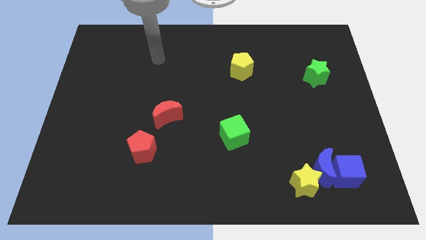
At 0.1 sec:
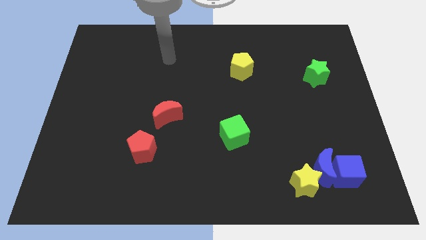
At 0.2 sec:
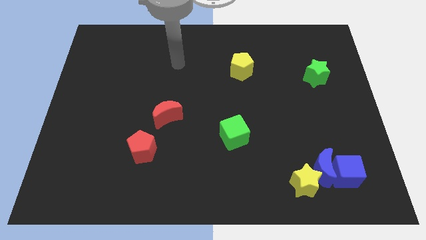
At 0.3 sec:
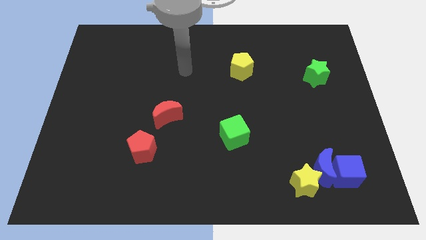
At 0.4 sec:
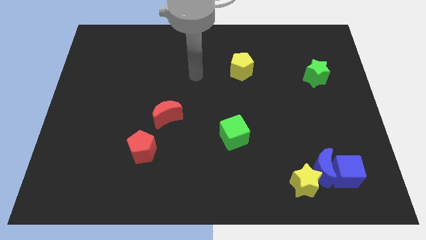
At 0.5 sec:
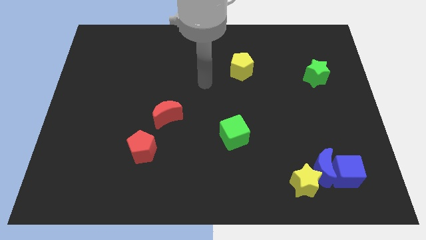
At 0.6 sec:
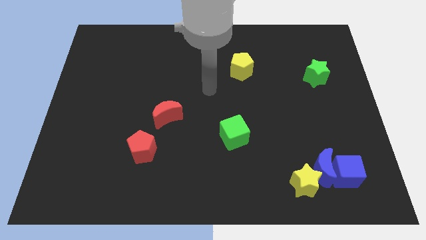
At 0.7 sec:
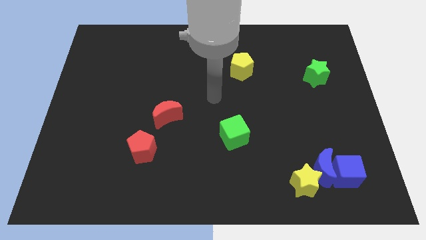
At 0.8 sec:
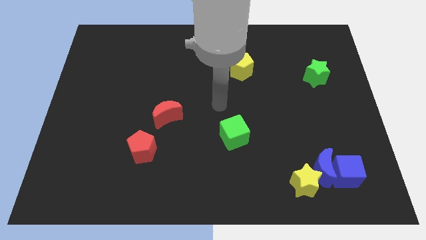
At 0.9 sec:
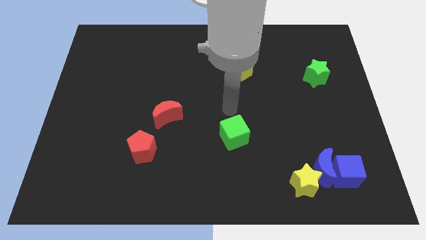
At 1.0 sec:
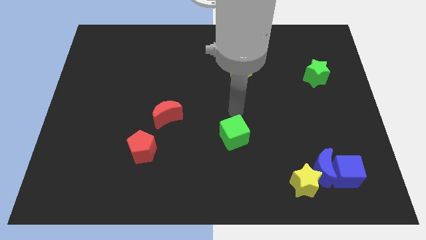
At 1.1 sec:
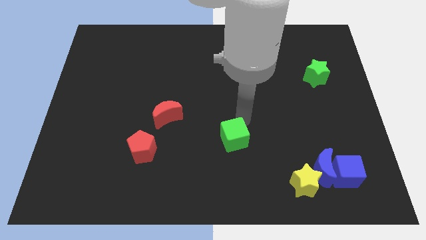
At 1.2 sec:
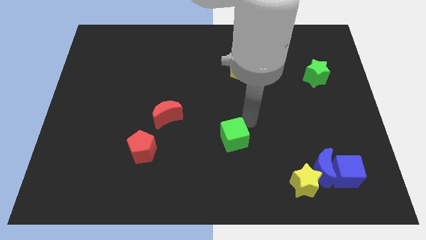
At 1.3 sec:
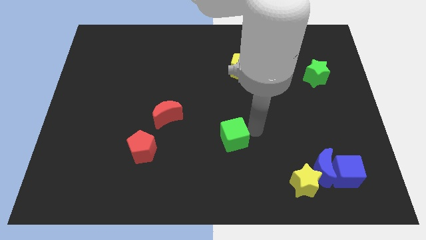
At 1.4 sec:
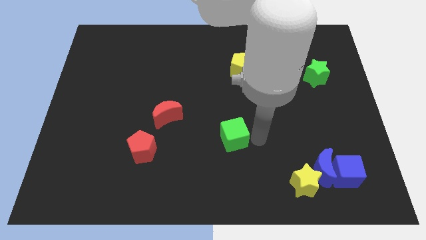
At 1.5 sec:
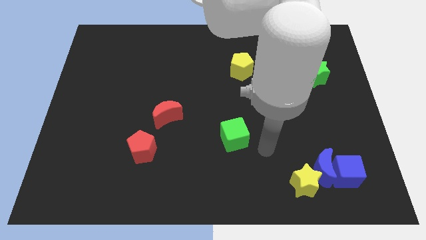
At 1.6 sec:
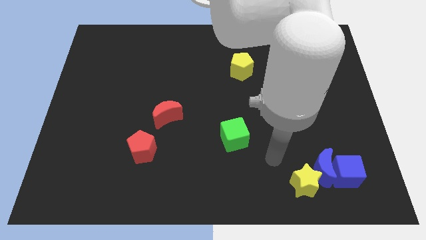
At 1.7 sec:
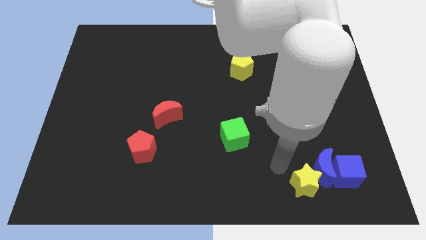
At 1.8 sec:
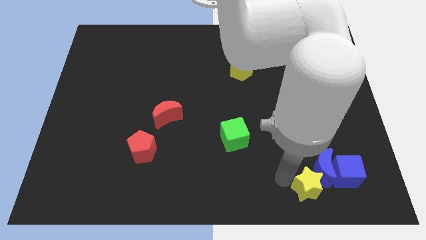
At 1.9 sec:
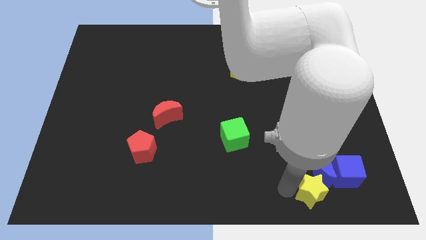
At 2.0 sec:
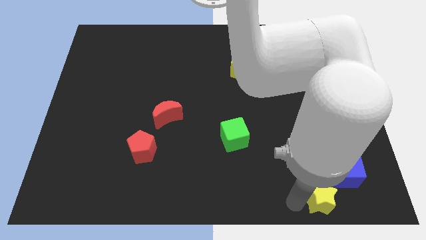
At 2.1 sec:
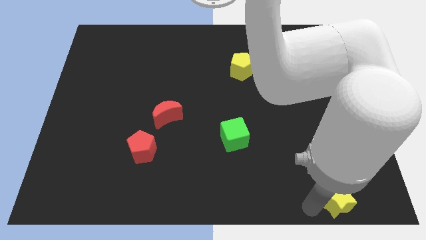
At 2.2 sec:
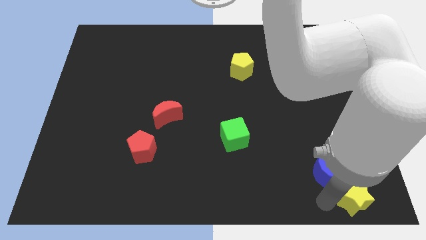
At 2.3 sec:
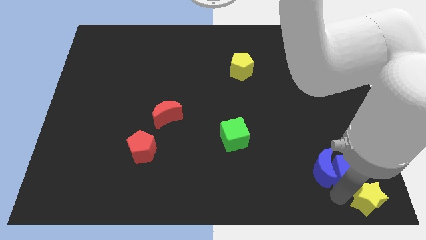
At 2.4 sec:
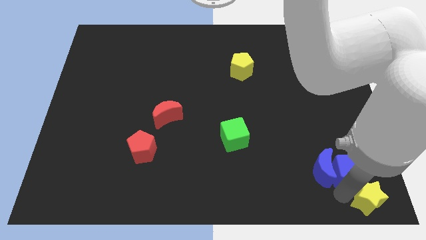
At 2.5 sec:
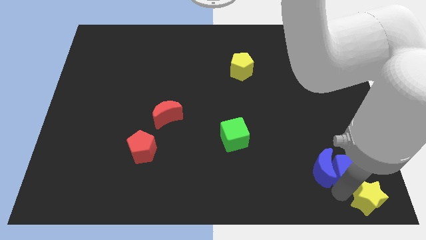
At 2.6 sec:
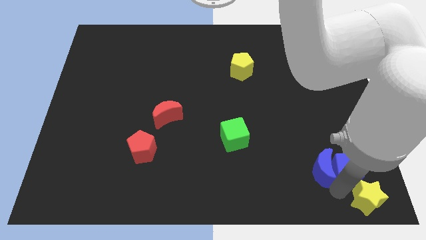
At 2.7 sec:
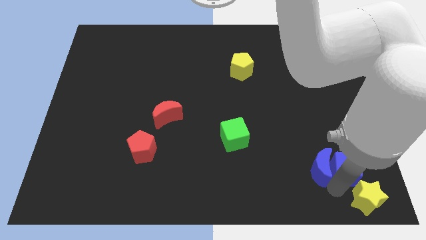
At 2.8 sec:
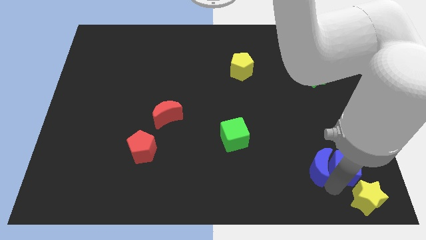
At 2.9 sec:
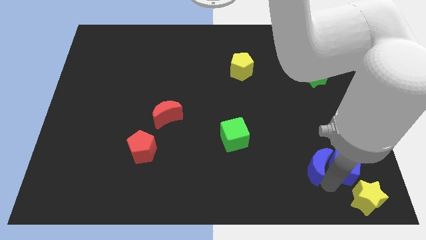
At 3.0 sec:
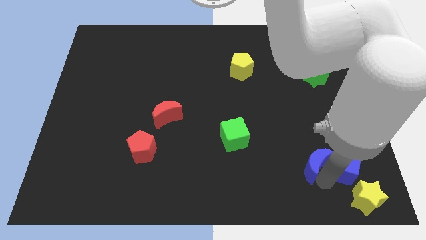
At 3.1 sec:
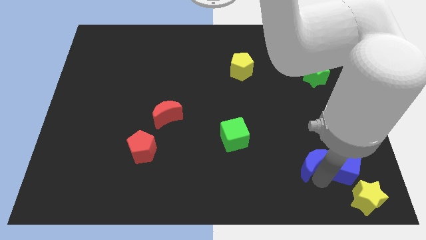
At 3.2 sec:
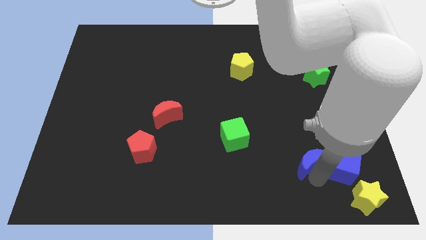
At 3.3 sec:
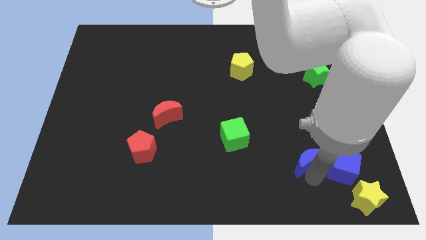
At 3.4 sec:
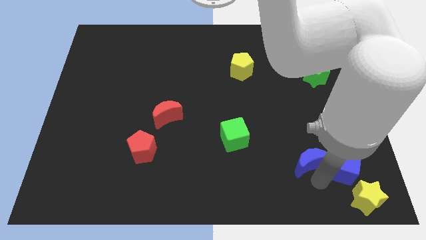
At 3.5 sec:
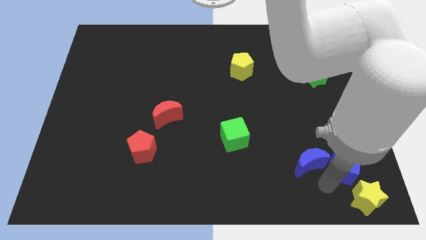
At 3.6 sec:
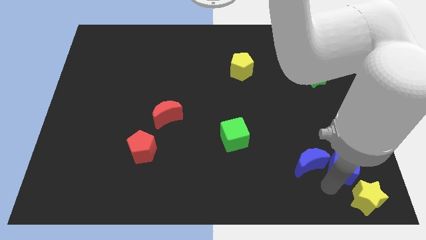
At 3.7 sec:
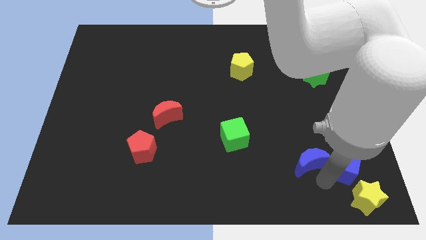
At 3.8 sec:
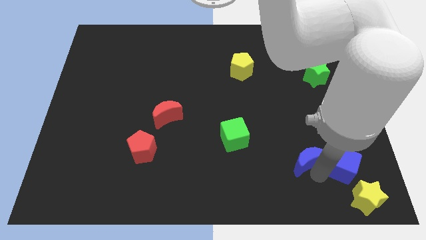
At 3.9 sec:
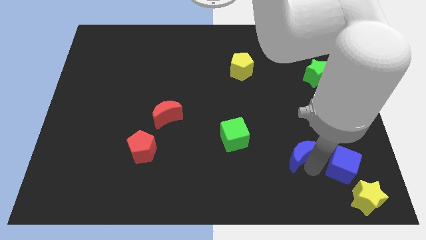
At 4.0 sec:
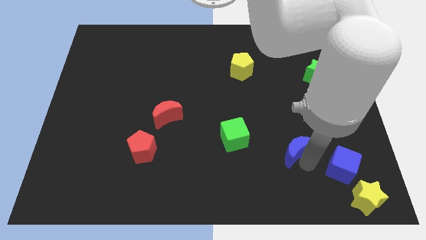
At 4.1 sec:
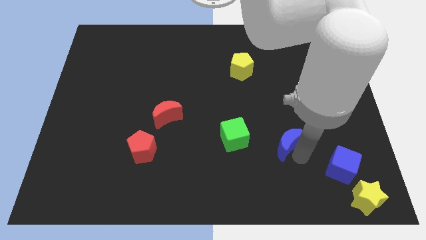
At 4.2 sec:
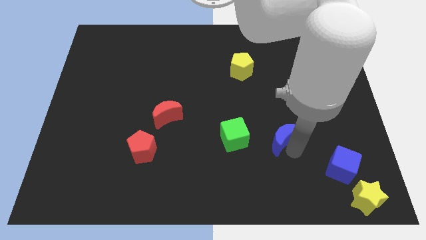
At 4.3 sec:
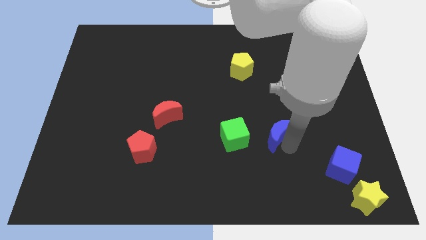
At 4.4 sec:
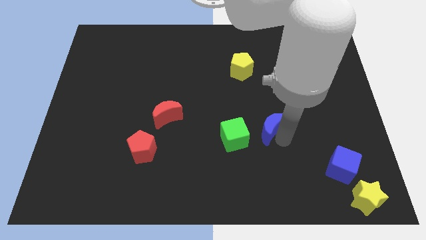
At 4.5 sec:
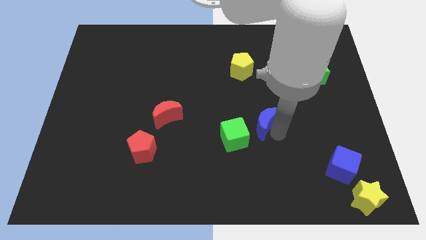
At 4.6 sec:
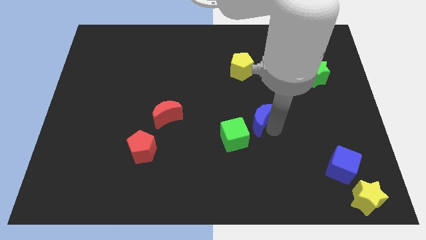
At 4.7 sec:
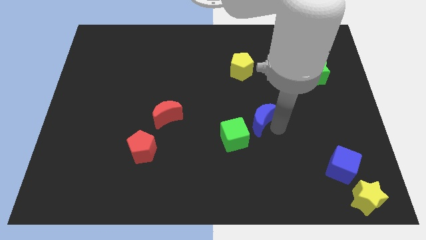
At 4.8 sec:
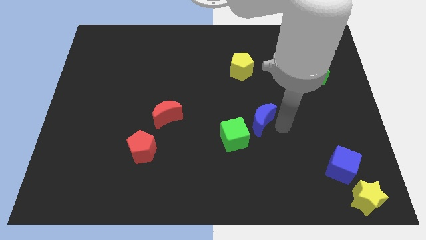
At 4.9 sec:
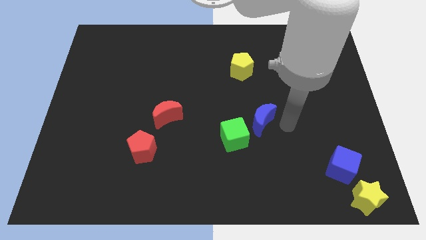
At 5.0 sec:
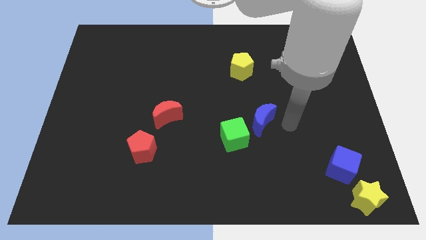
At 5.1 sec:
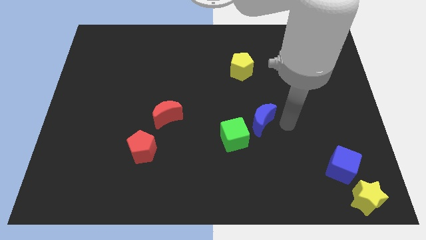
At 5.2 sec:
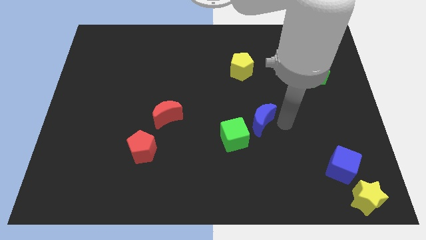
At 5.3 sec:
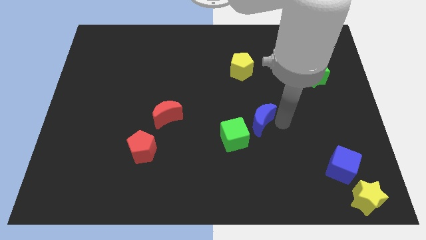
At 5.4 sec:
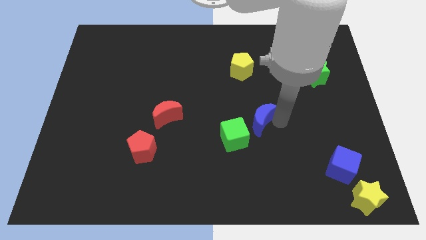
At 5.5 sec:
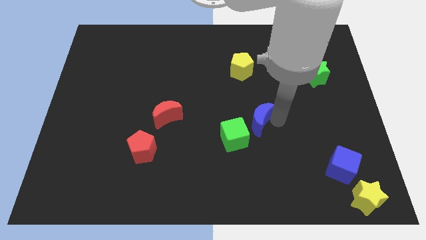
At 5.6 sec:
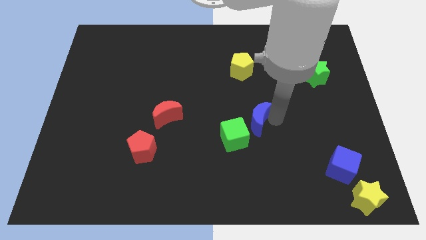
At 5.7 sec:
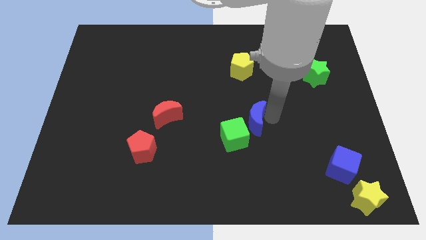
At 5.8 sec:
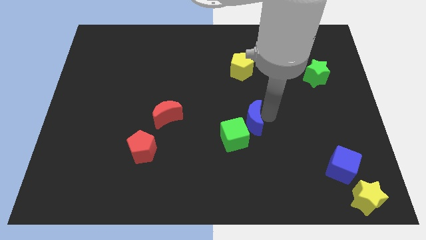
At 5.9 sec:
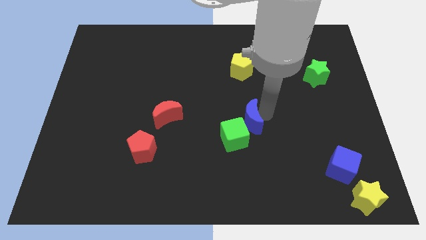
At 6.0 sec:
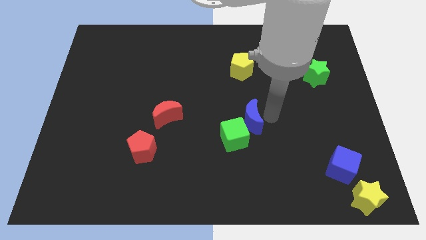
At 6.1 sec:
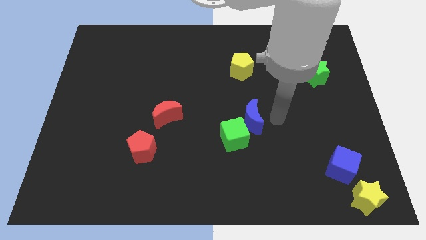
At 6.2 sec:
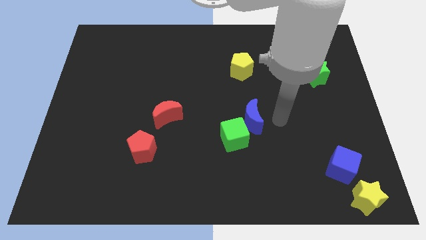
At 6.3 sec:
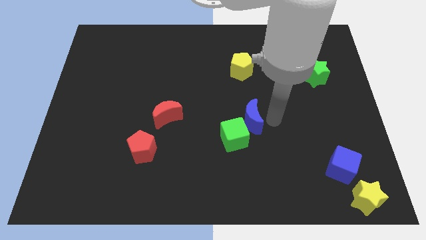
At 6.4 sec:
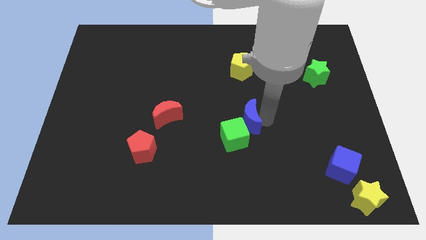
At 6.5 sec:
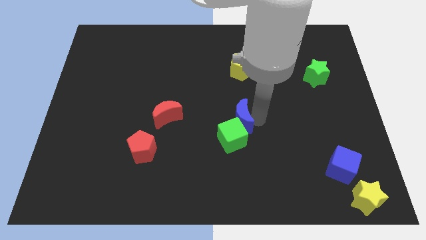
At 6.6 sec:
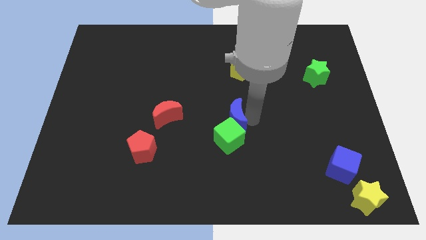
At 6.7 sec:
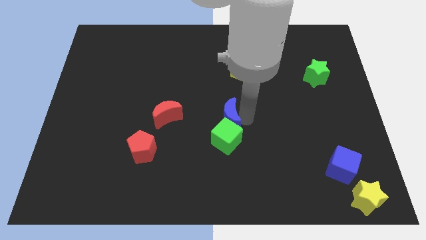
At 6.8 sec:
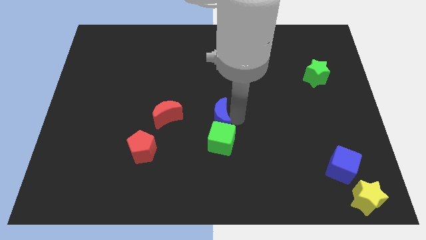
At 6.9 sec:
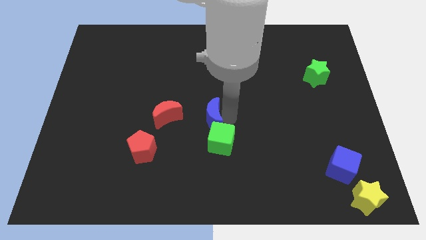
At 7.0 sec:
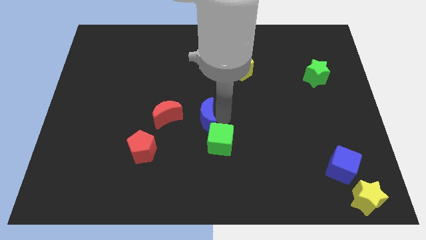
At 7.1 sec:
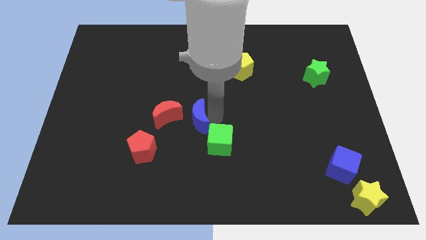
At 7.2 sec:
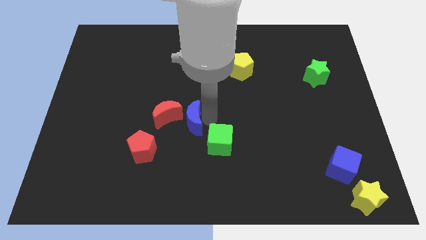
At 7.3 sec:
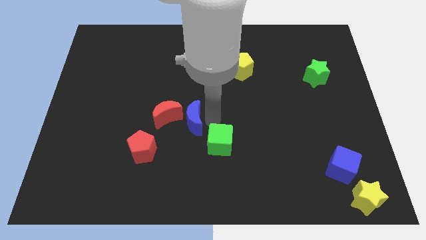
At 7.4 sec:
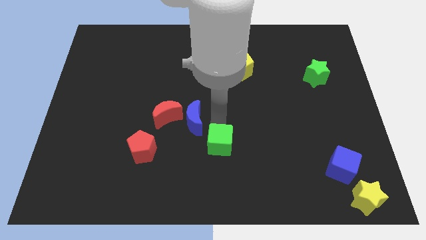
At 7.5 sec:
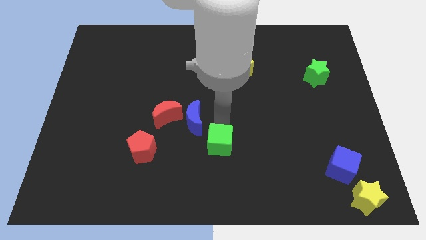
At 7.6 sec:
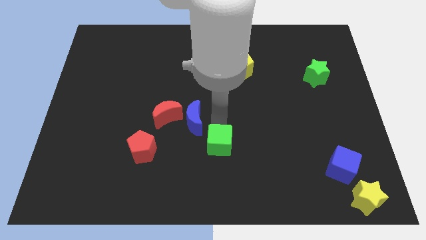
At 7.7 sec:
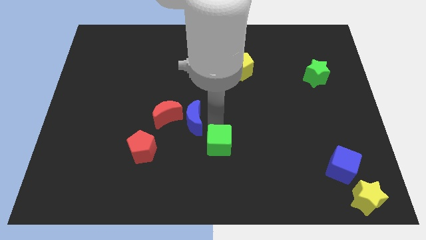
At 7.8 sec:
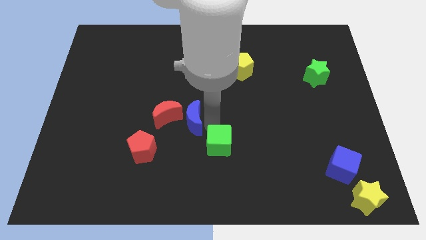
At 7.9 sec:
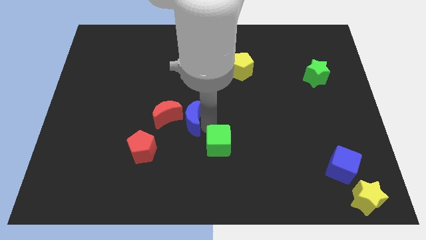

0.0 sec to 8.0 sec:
move the blue moon close to the red moon
